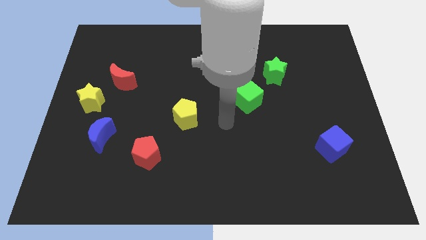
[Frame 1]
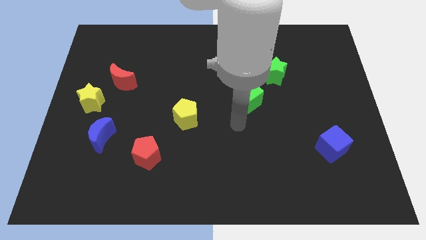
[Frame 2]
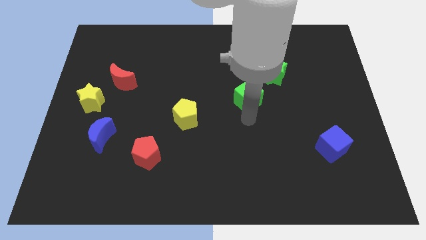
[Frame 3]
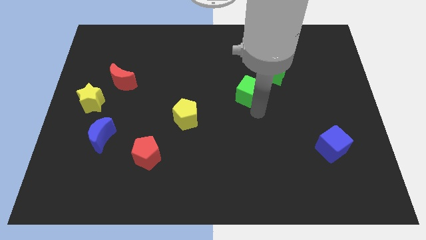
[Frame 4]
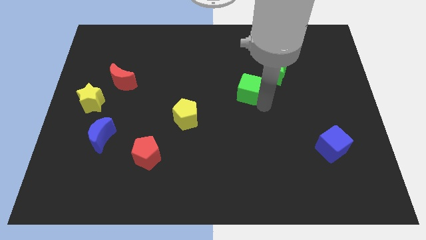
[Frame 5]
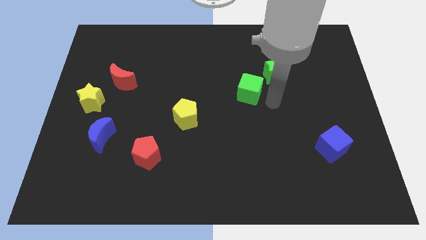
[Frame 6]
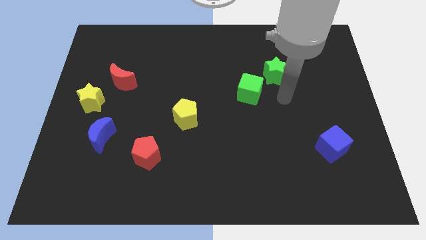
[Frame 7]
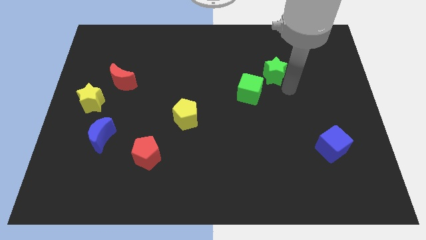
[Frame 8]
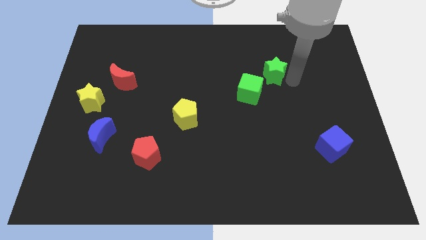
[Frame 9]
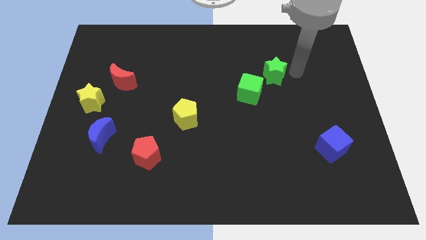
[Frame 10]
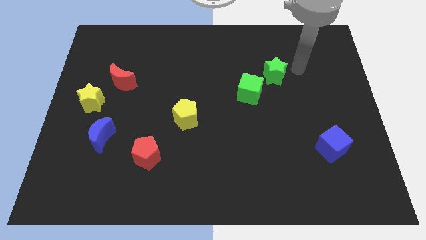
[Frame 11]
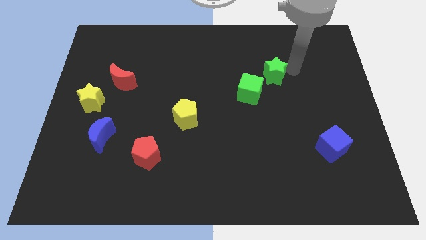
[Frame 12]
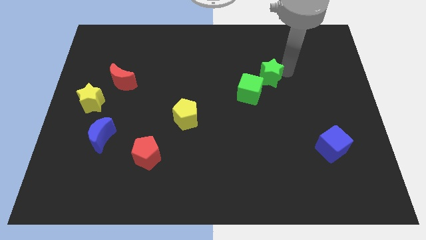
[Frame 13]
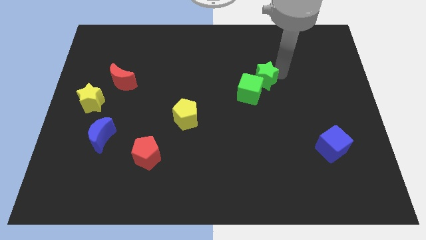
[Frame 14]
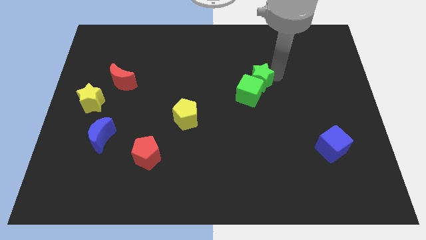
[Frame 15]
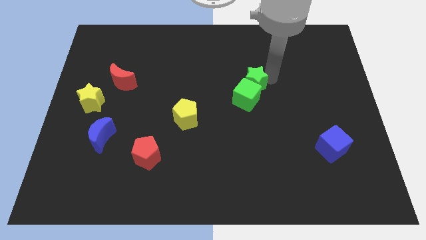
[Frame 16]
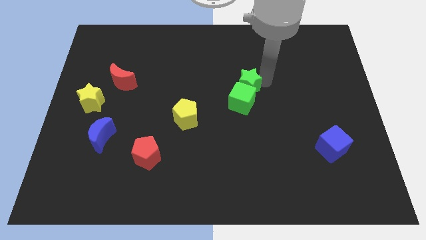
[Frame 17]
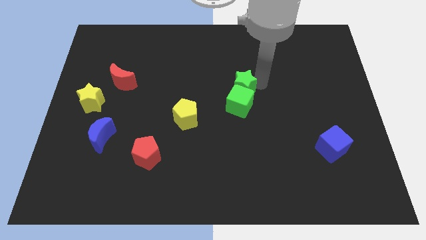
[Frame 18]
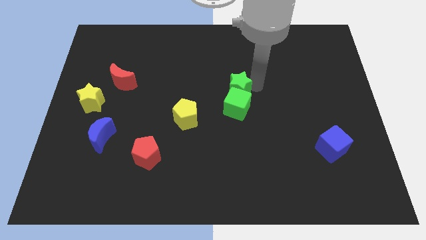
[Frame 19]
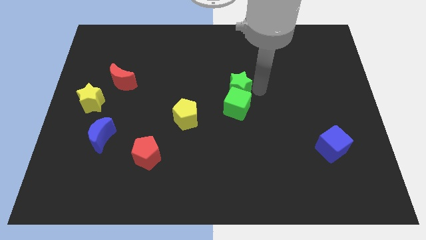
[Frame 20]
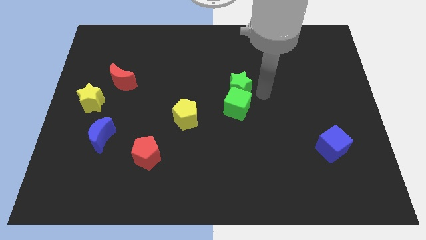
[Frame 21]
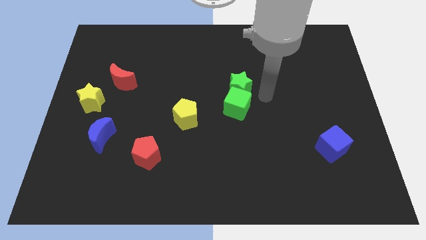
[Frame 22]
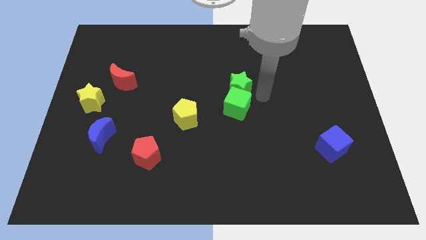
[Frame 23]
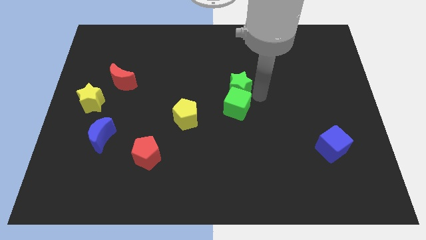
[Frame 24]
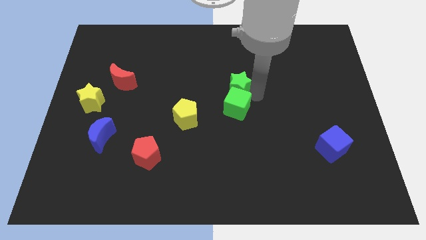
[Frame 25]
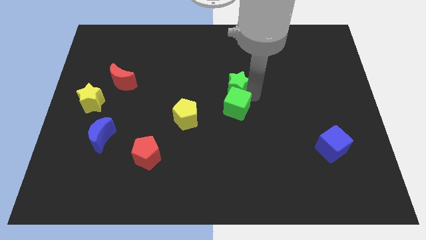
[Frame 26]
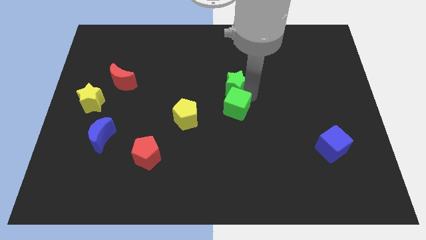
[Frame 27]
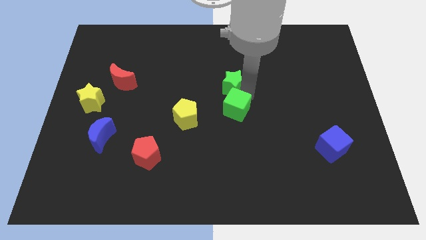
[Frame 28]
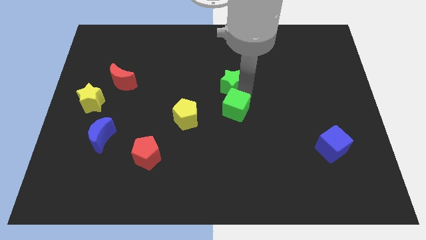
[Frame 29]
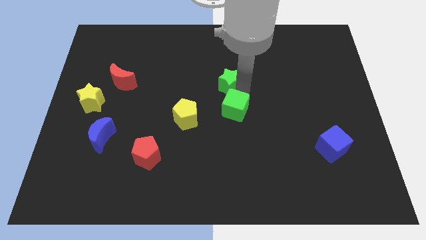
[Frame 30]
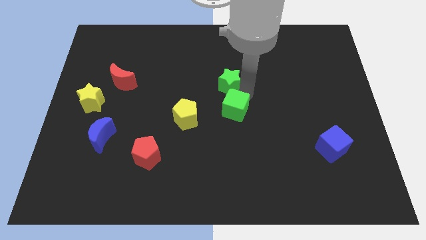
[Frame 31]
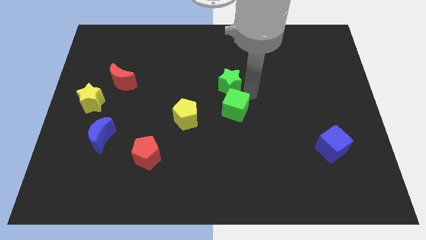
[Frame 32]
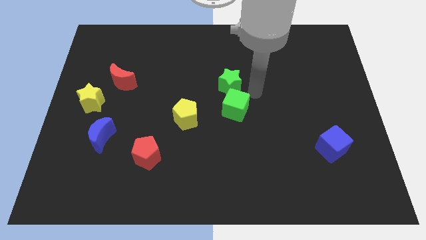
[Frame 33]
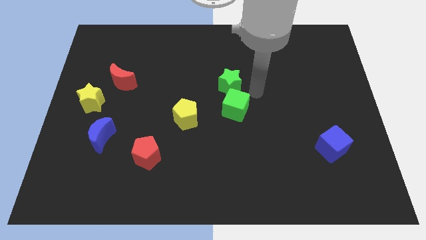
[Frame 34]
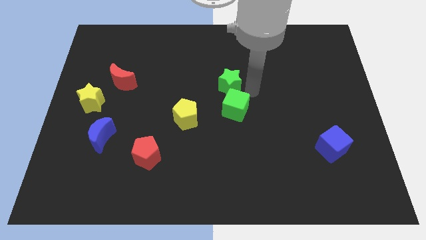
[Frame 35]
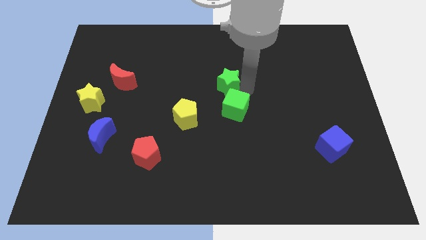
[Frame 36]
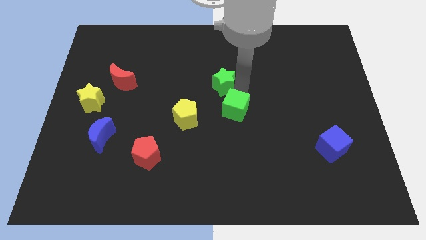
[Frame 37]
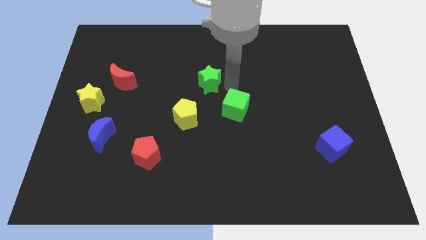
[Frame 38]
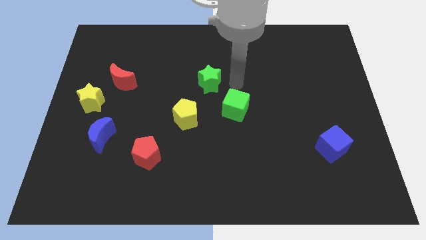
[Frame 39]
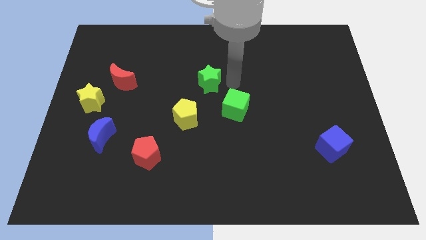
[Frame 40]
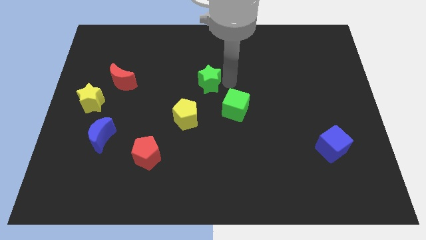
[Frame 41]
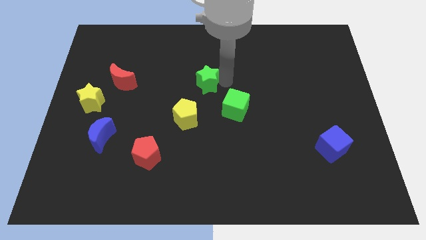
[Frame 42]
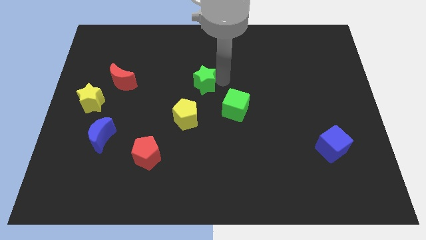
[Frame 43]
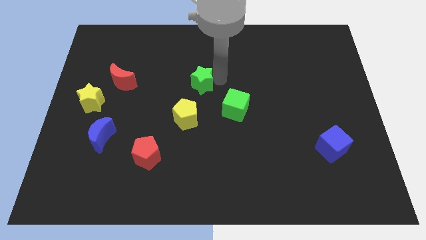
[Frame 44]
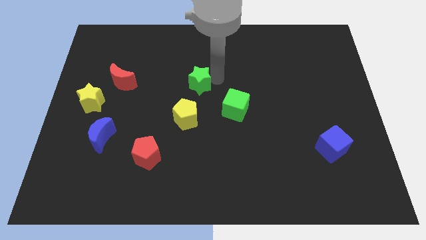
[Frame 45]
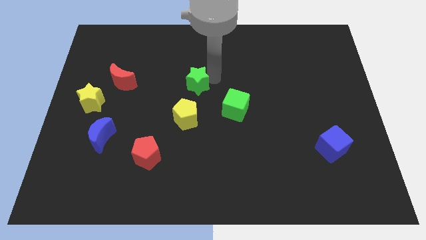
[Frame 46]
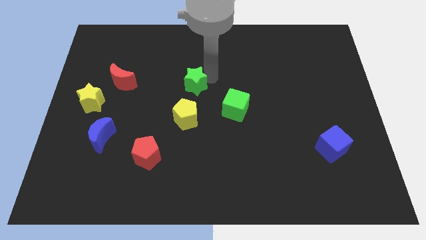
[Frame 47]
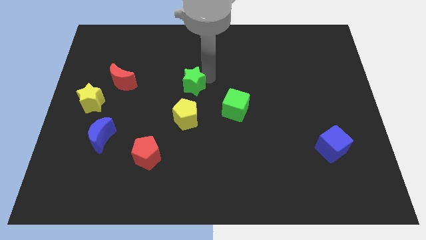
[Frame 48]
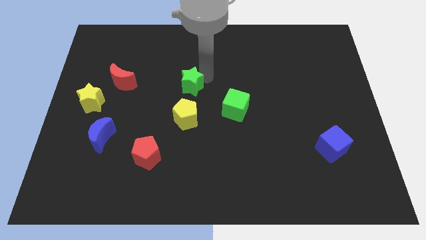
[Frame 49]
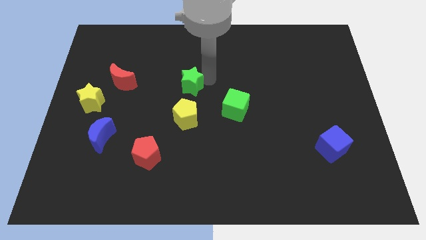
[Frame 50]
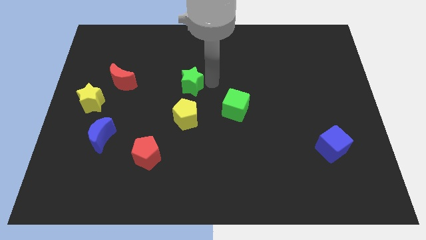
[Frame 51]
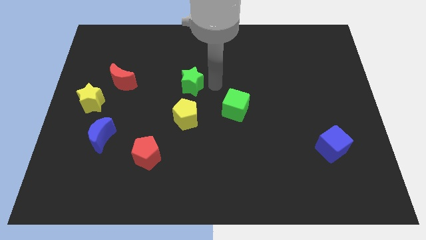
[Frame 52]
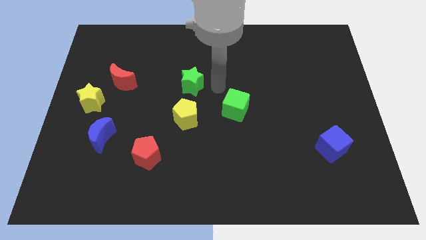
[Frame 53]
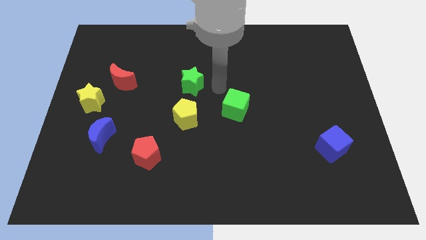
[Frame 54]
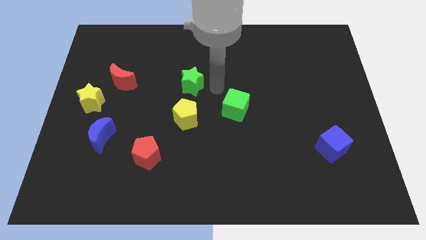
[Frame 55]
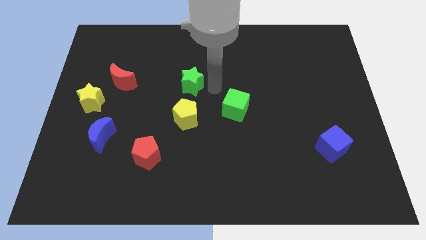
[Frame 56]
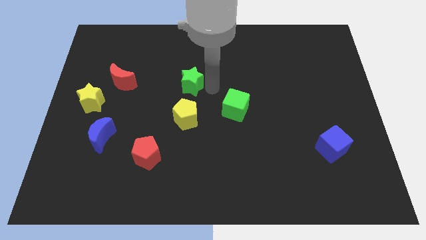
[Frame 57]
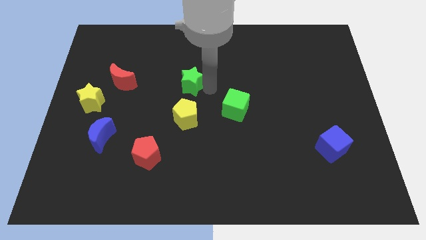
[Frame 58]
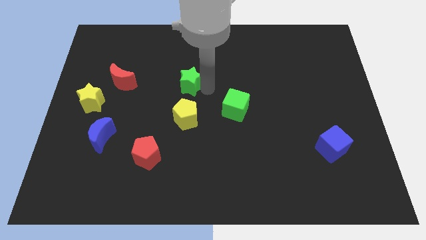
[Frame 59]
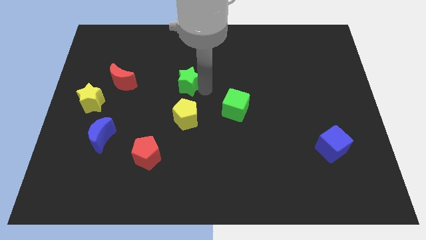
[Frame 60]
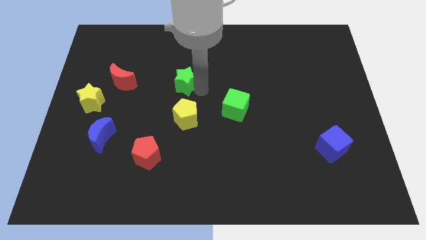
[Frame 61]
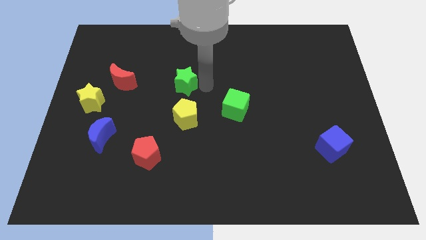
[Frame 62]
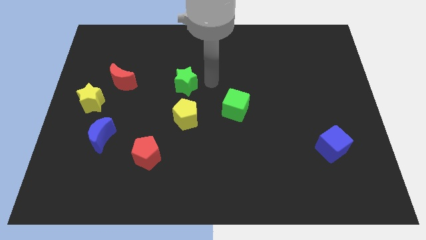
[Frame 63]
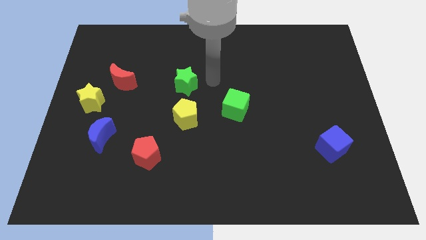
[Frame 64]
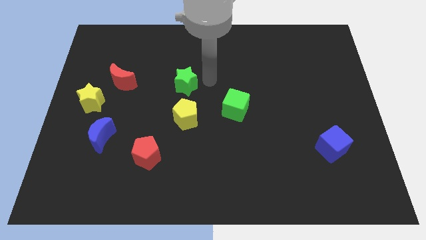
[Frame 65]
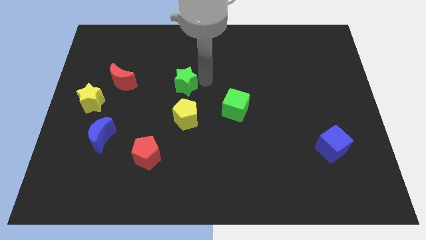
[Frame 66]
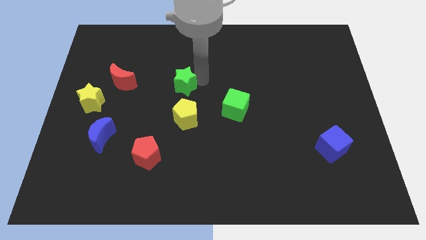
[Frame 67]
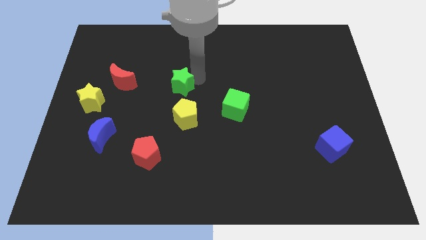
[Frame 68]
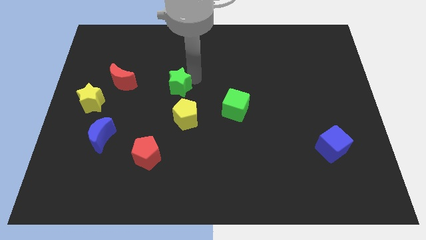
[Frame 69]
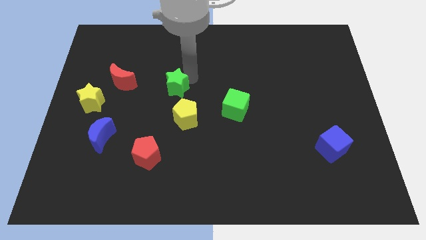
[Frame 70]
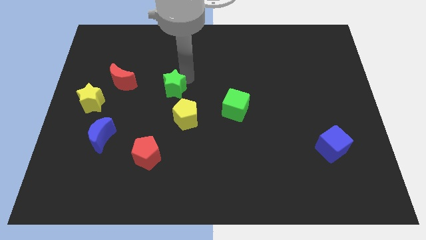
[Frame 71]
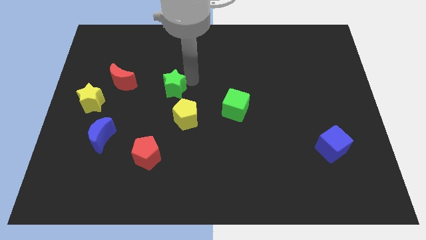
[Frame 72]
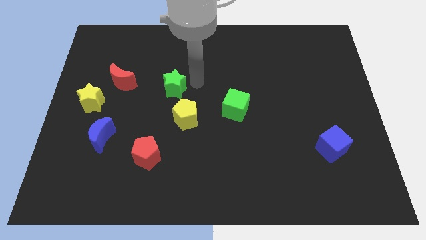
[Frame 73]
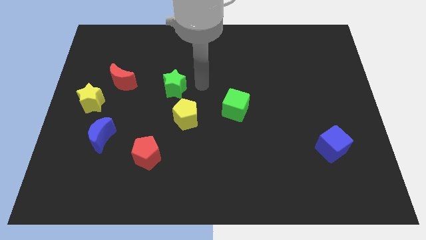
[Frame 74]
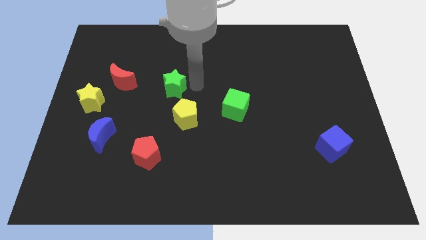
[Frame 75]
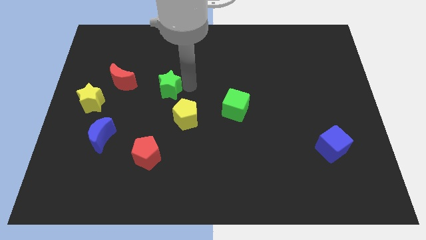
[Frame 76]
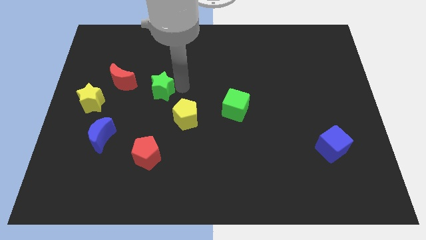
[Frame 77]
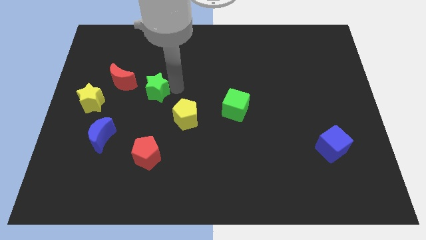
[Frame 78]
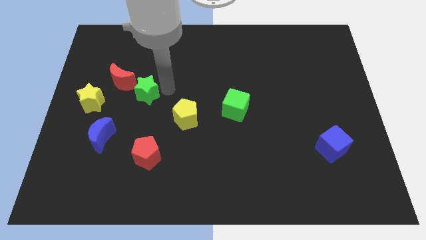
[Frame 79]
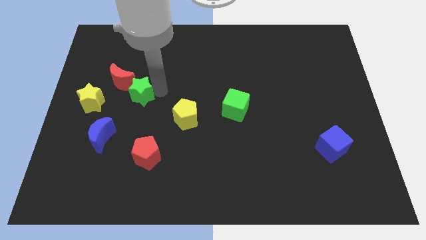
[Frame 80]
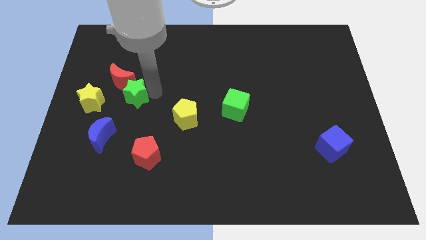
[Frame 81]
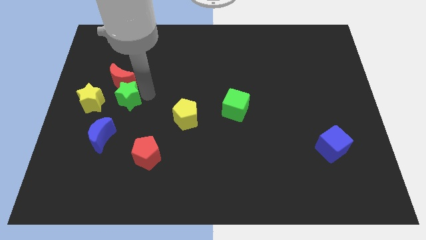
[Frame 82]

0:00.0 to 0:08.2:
push the green star to the top side of the blue moon
